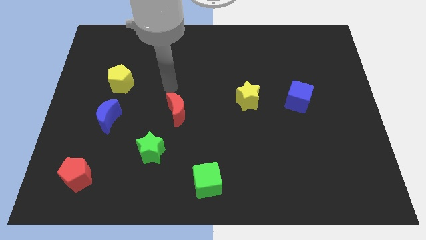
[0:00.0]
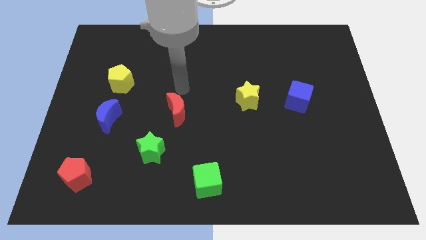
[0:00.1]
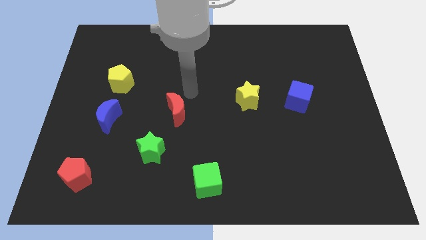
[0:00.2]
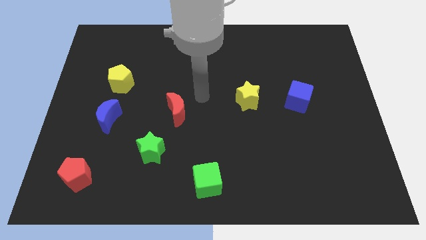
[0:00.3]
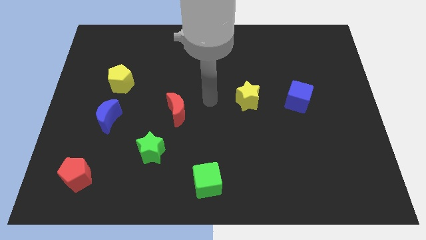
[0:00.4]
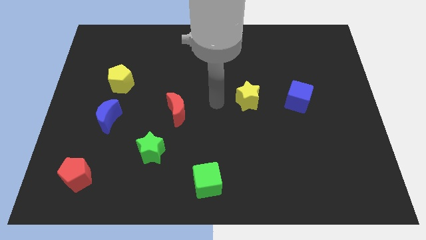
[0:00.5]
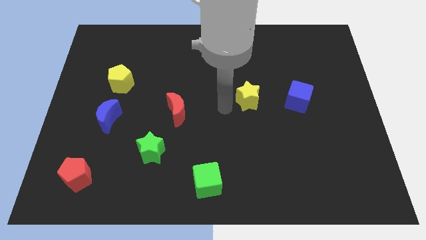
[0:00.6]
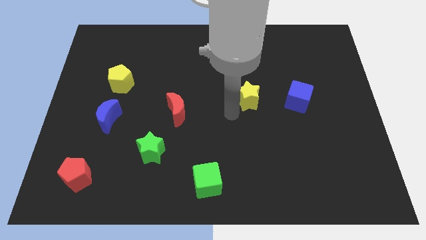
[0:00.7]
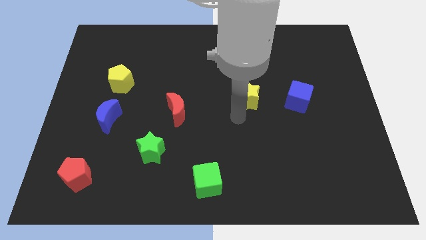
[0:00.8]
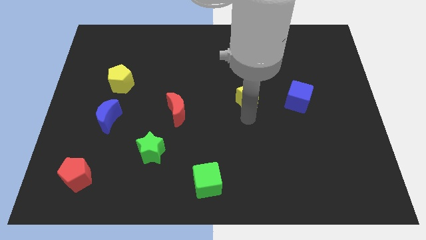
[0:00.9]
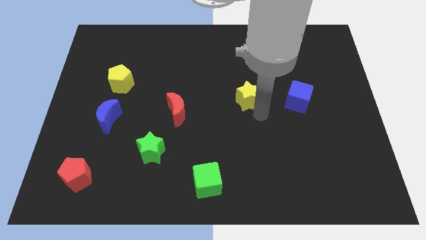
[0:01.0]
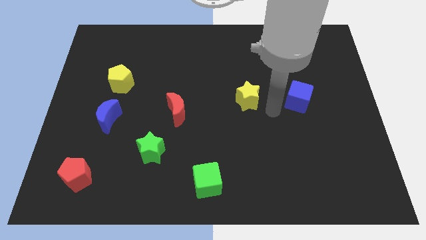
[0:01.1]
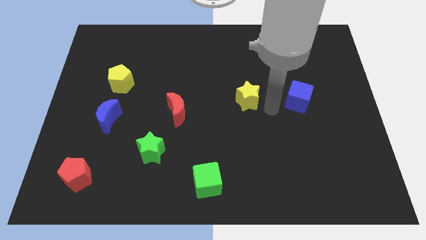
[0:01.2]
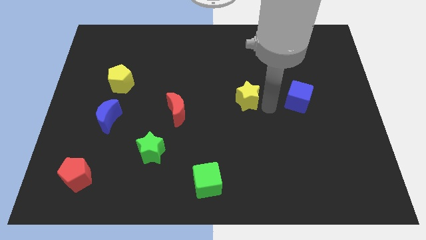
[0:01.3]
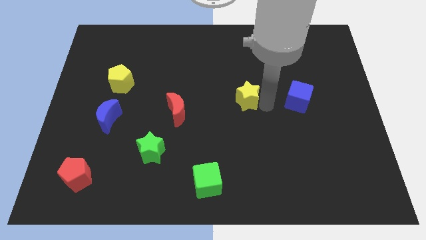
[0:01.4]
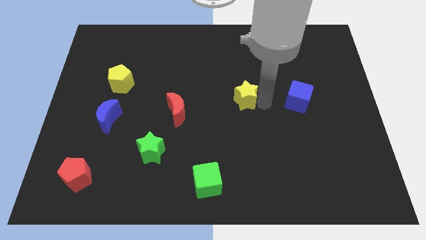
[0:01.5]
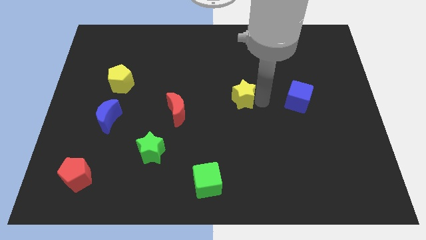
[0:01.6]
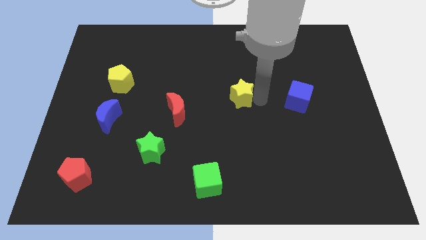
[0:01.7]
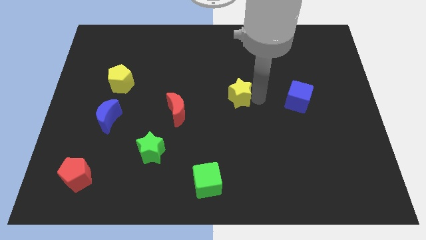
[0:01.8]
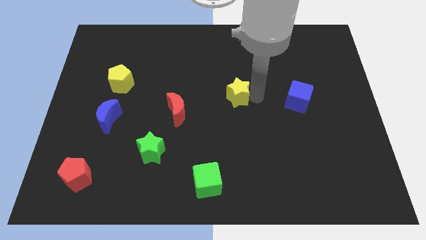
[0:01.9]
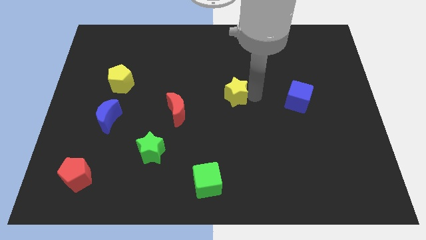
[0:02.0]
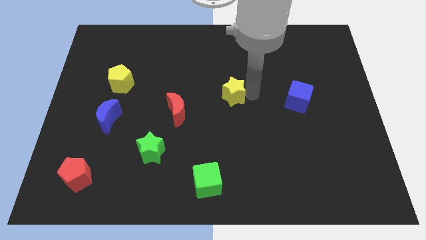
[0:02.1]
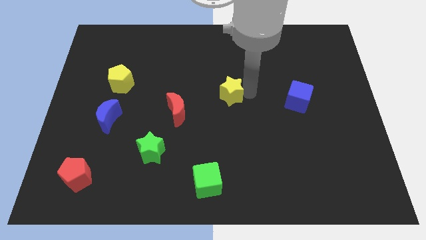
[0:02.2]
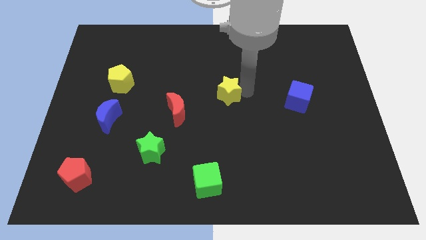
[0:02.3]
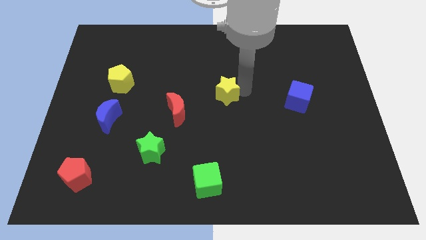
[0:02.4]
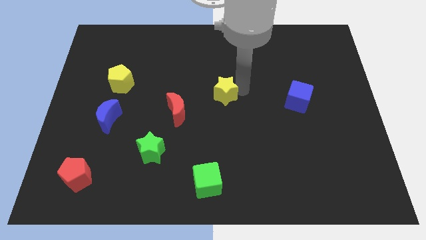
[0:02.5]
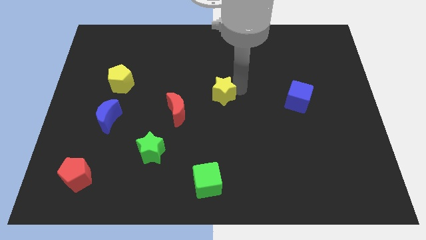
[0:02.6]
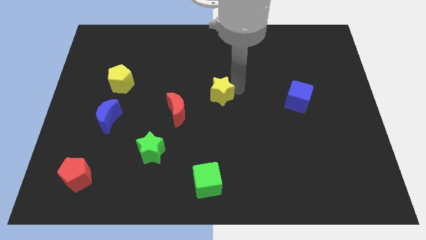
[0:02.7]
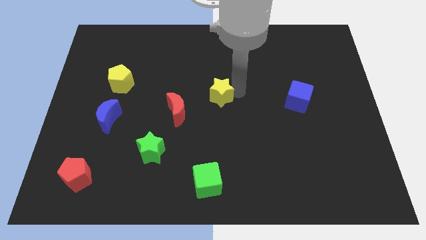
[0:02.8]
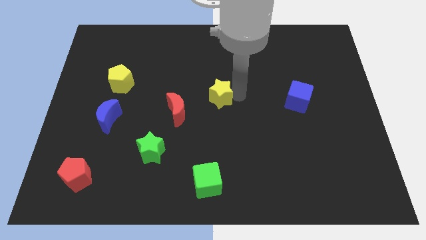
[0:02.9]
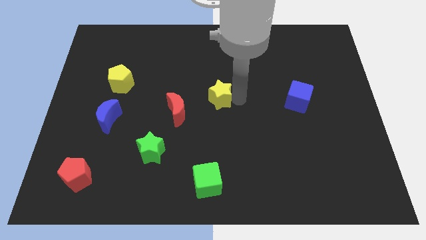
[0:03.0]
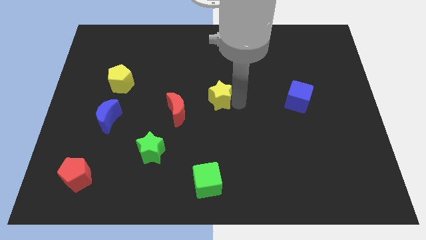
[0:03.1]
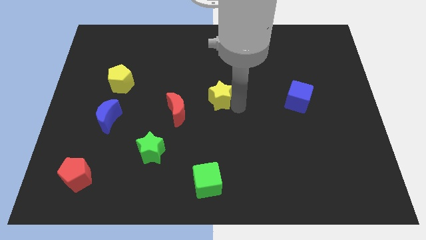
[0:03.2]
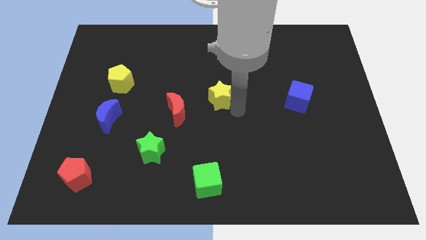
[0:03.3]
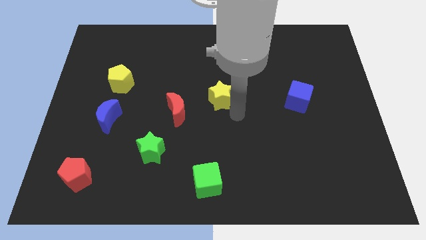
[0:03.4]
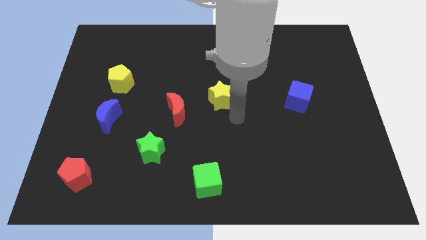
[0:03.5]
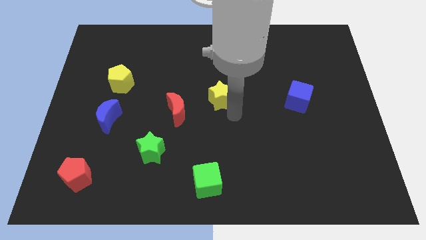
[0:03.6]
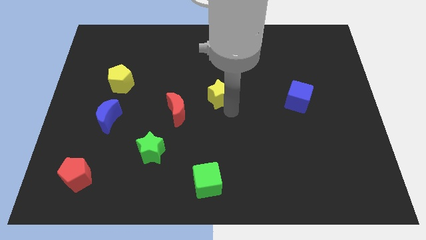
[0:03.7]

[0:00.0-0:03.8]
push the yellow star a little bit to the left

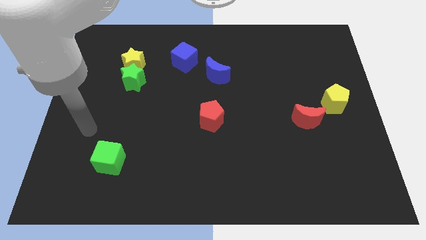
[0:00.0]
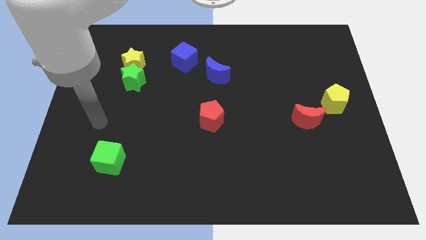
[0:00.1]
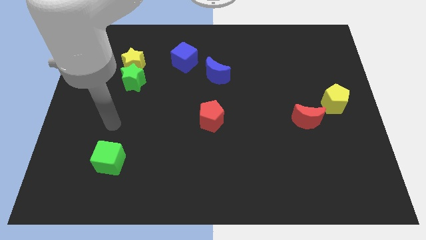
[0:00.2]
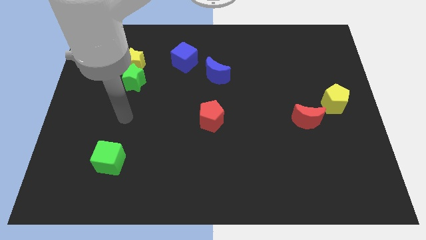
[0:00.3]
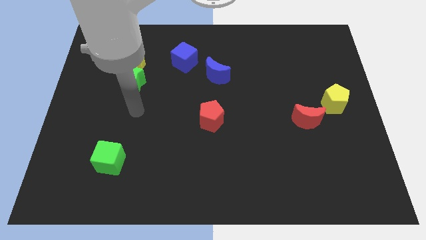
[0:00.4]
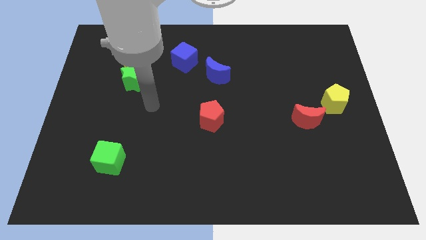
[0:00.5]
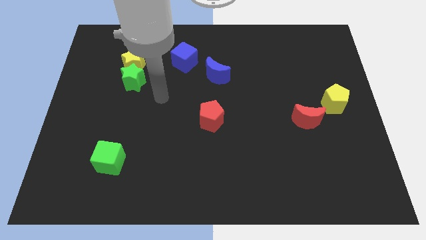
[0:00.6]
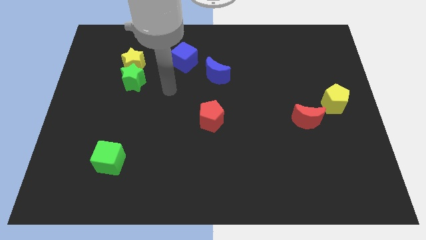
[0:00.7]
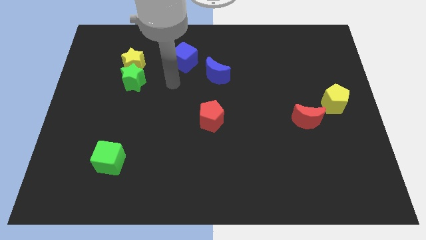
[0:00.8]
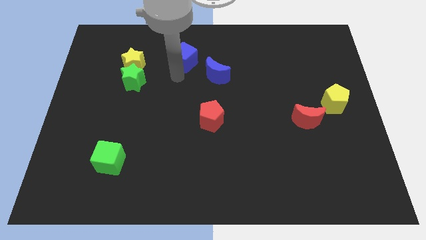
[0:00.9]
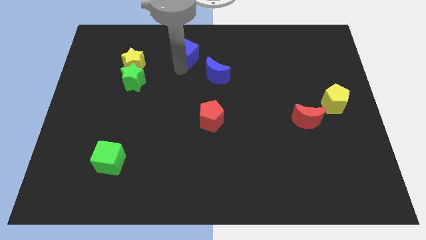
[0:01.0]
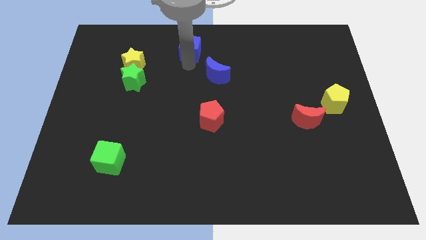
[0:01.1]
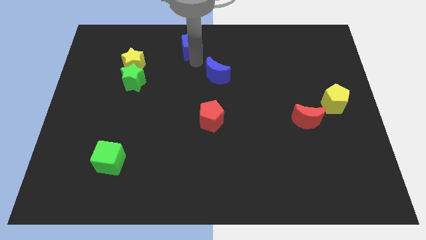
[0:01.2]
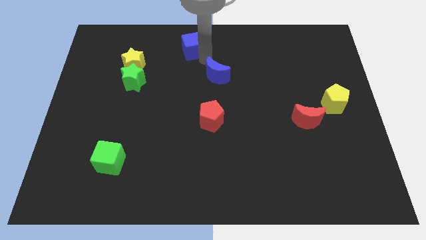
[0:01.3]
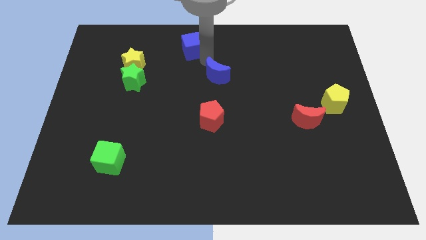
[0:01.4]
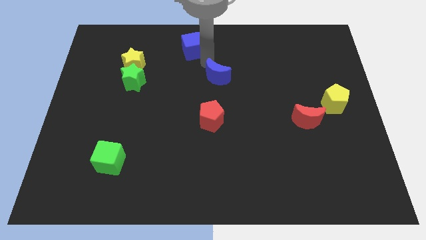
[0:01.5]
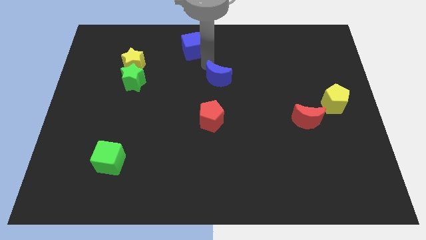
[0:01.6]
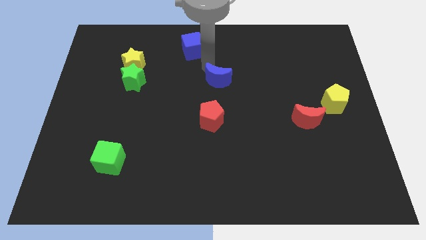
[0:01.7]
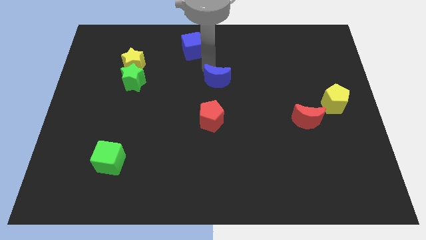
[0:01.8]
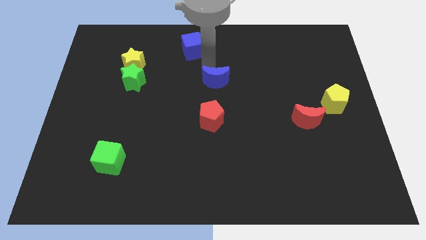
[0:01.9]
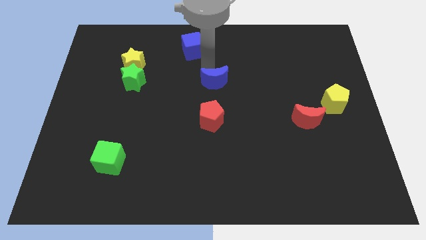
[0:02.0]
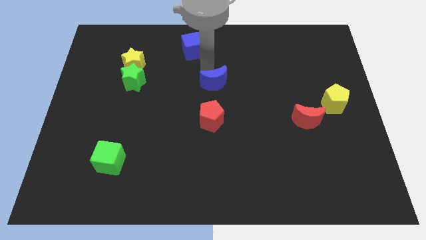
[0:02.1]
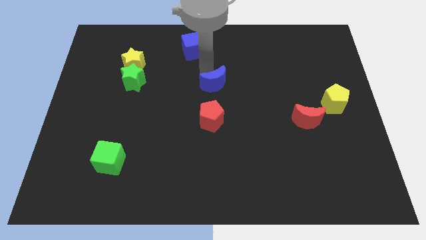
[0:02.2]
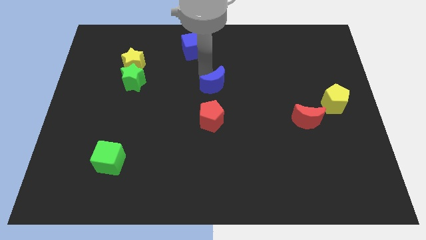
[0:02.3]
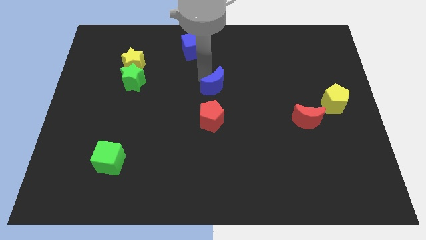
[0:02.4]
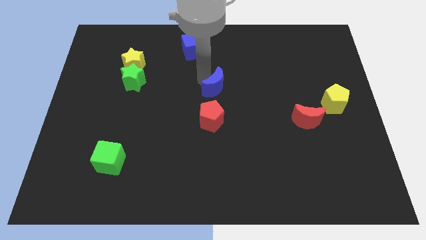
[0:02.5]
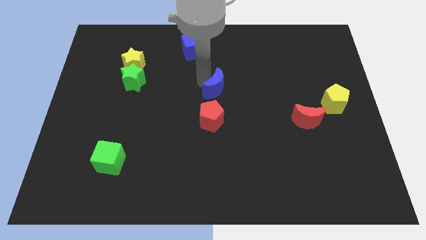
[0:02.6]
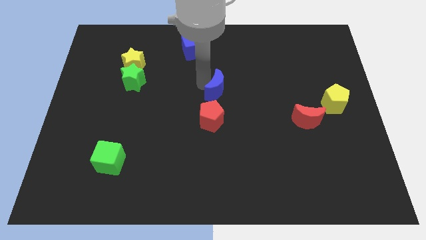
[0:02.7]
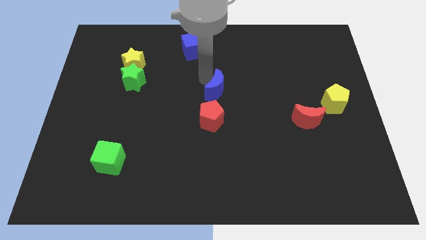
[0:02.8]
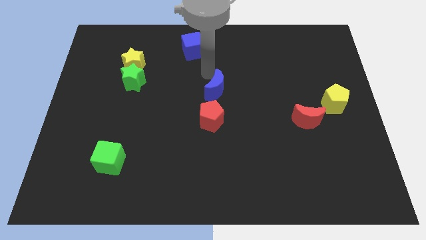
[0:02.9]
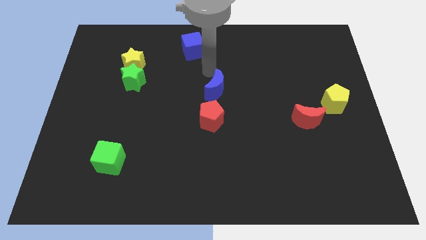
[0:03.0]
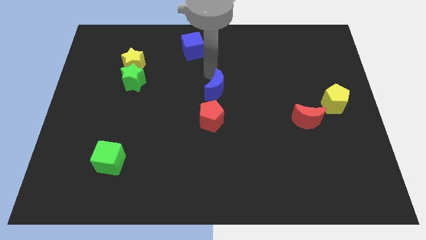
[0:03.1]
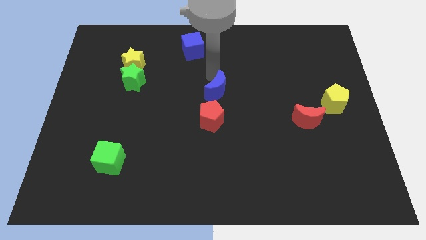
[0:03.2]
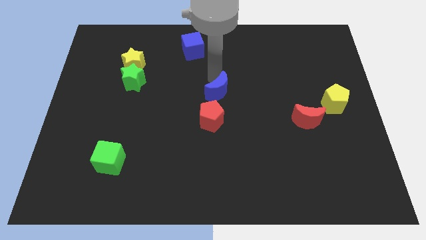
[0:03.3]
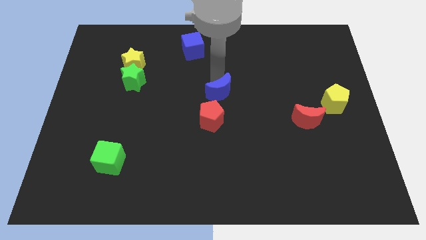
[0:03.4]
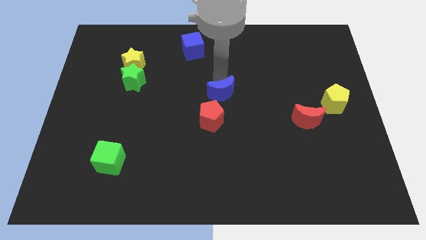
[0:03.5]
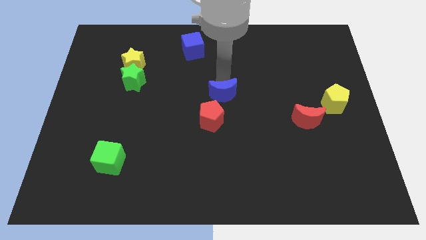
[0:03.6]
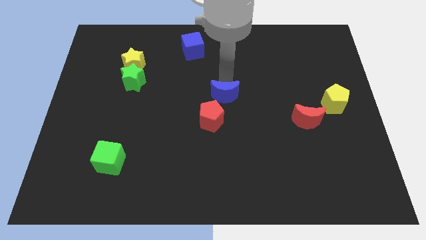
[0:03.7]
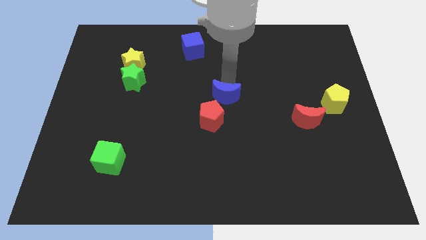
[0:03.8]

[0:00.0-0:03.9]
push the blue moon slightly downwards

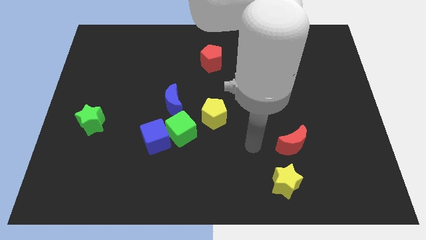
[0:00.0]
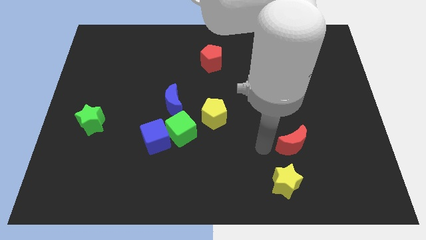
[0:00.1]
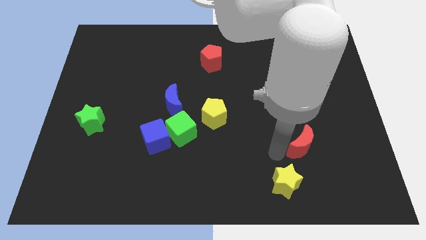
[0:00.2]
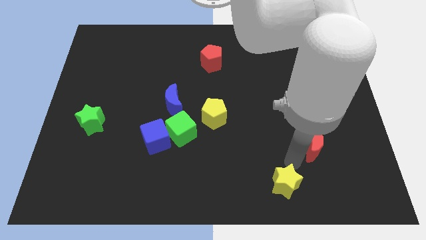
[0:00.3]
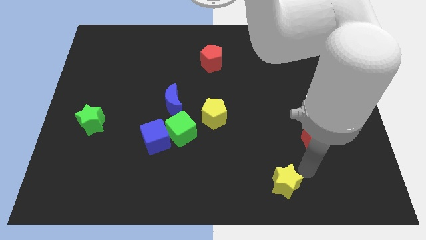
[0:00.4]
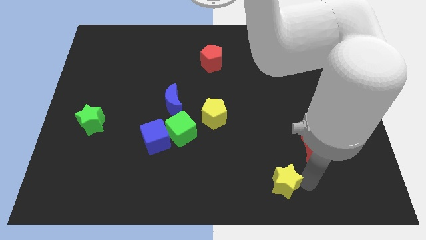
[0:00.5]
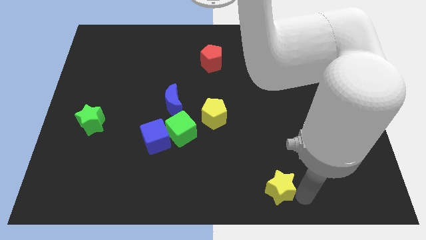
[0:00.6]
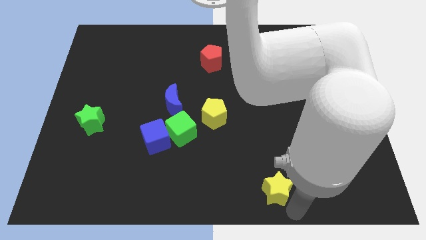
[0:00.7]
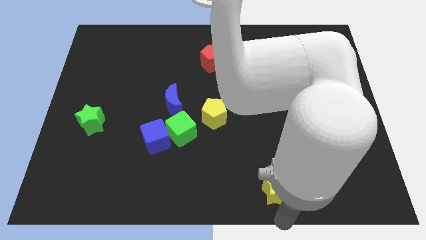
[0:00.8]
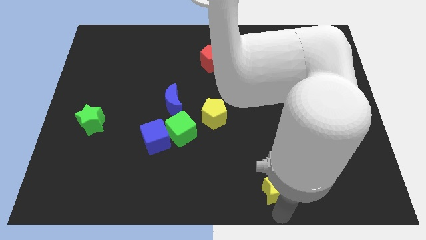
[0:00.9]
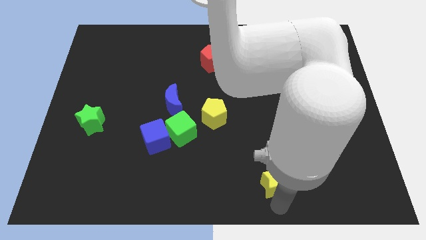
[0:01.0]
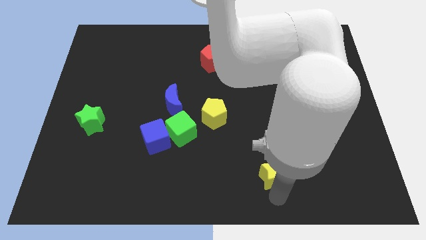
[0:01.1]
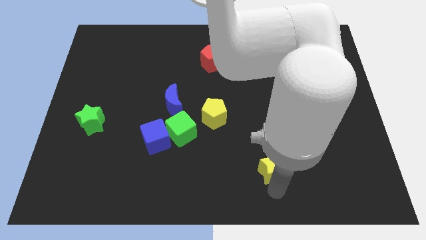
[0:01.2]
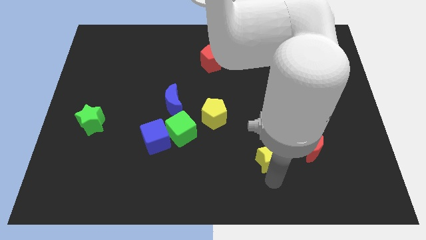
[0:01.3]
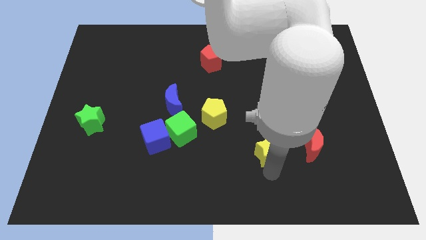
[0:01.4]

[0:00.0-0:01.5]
move the yellow star up a little
